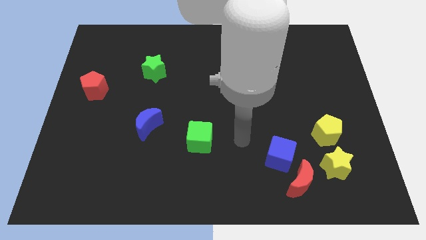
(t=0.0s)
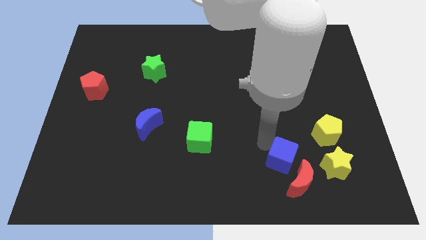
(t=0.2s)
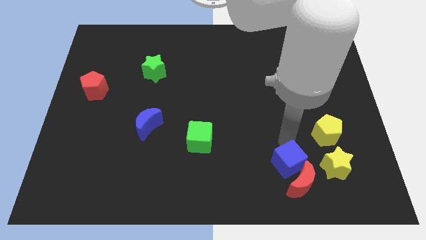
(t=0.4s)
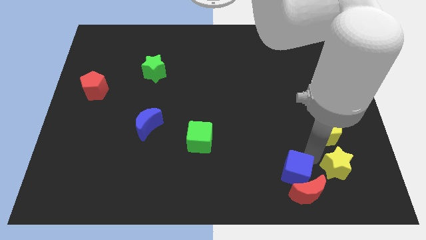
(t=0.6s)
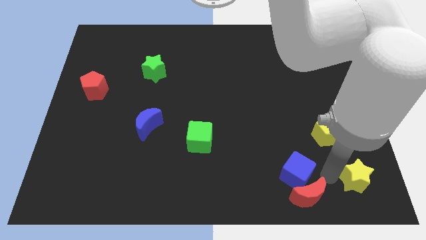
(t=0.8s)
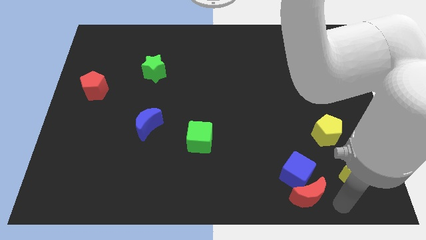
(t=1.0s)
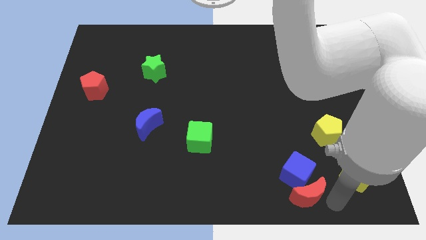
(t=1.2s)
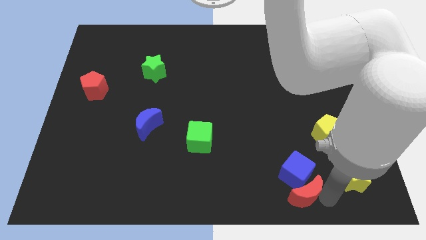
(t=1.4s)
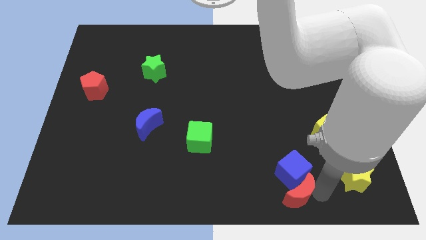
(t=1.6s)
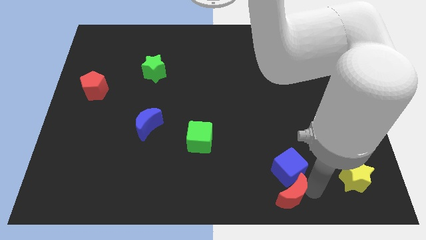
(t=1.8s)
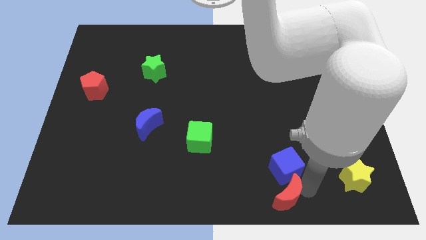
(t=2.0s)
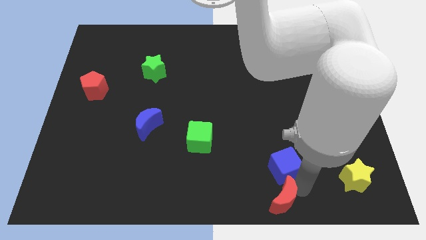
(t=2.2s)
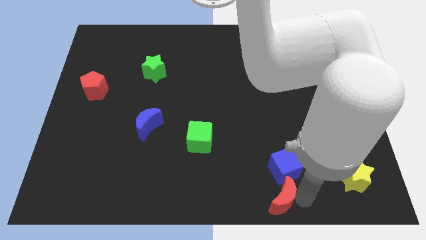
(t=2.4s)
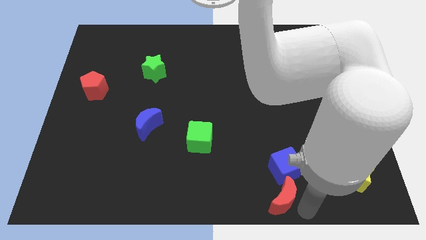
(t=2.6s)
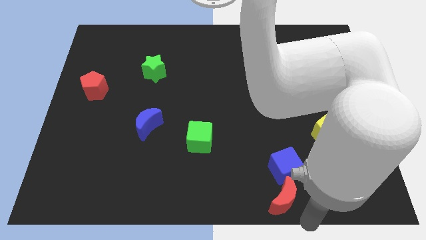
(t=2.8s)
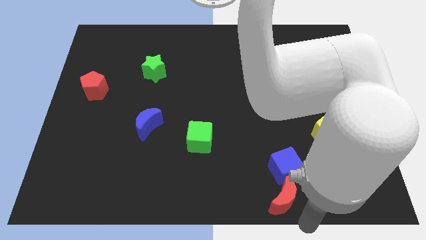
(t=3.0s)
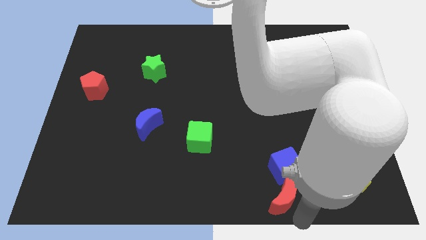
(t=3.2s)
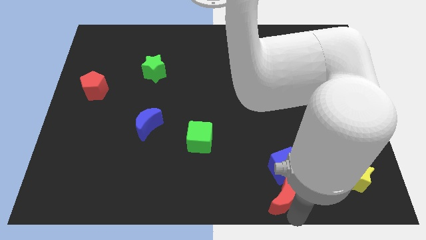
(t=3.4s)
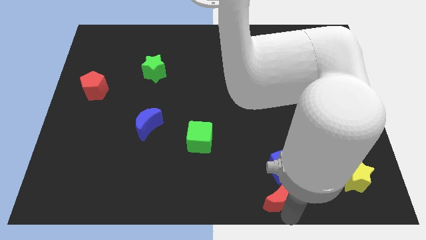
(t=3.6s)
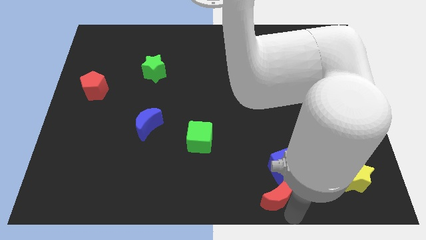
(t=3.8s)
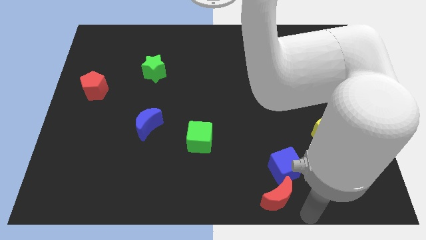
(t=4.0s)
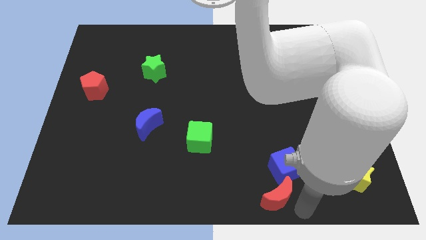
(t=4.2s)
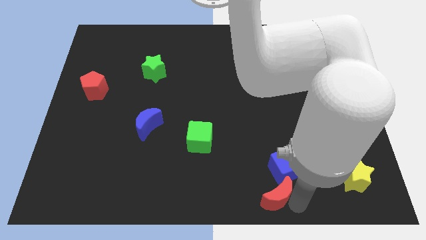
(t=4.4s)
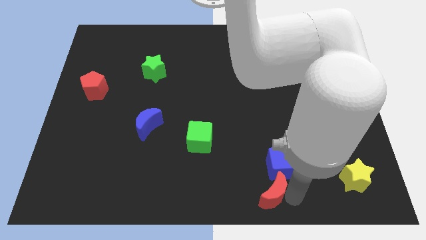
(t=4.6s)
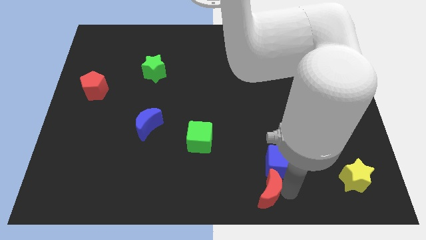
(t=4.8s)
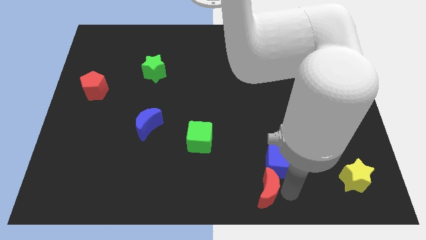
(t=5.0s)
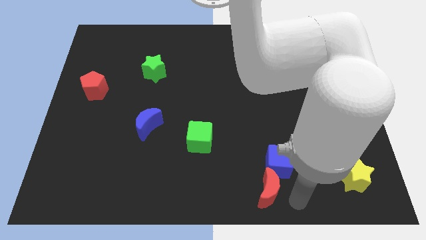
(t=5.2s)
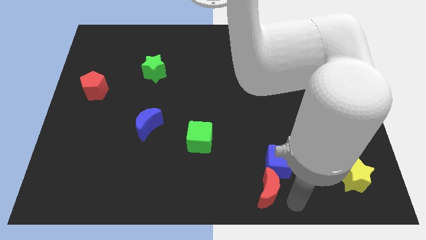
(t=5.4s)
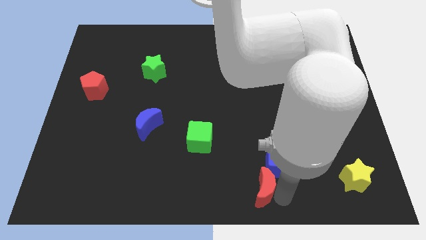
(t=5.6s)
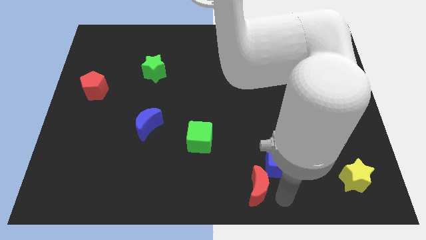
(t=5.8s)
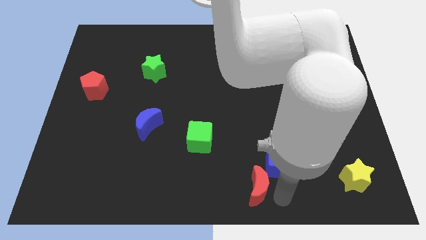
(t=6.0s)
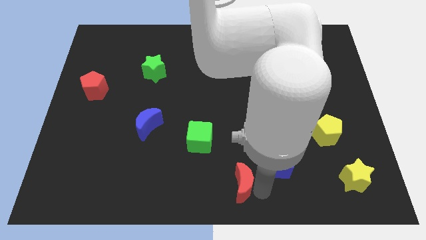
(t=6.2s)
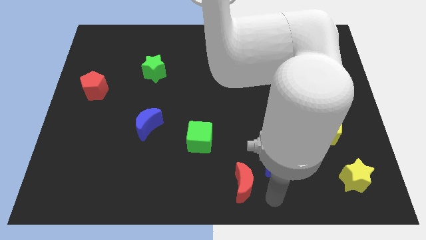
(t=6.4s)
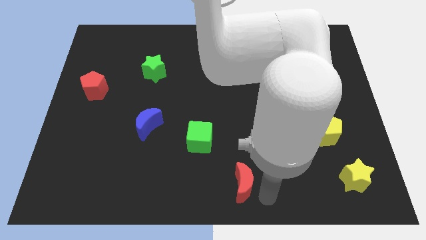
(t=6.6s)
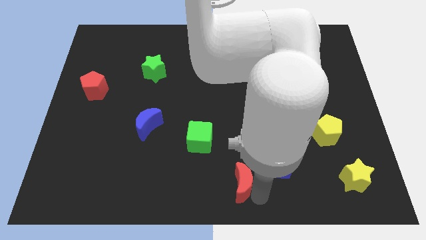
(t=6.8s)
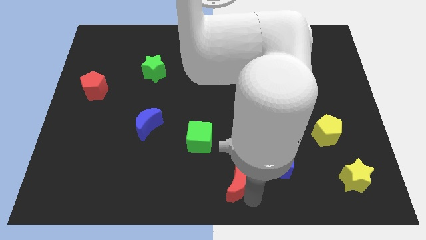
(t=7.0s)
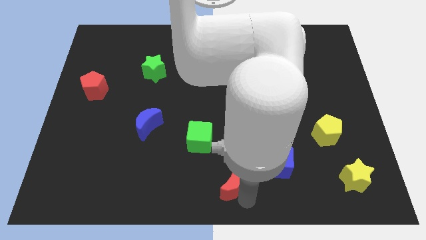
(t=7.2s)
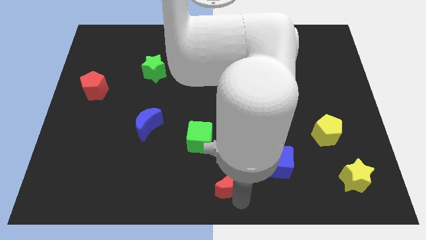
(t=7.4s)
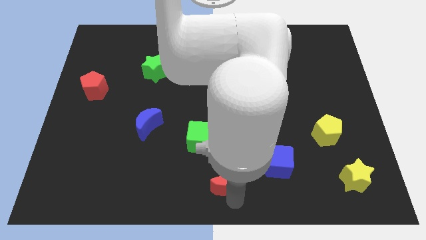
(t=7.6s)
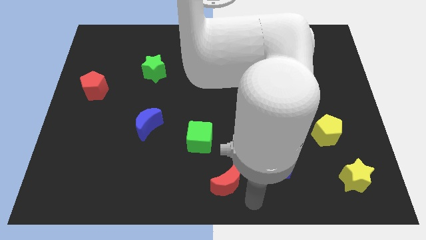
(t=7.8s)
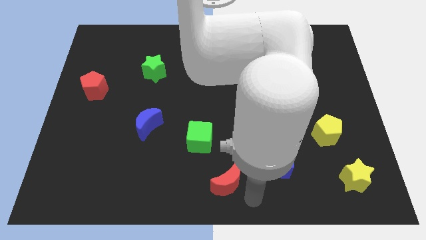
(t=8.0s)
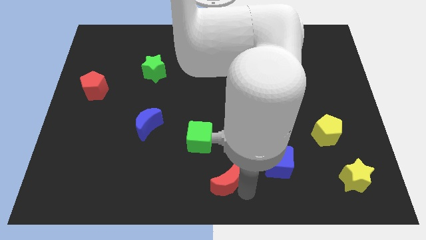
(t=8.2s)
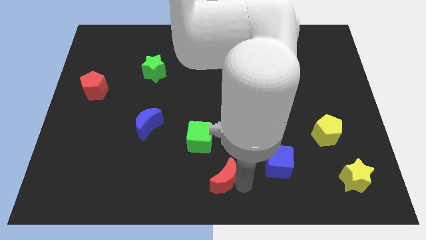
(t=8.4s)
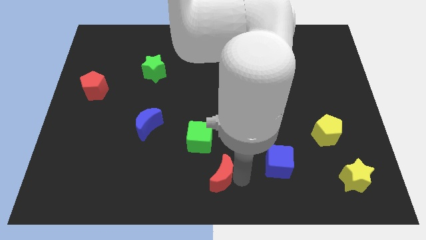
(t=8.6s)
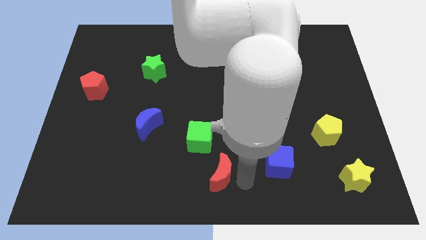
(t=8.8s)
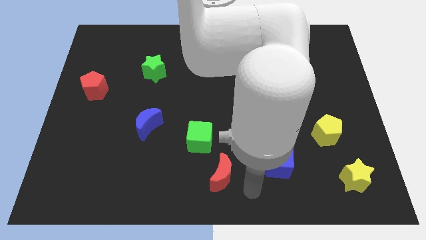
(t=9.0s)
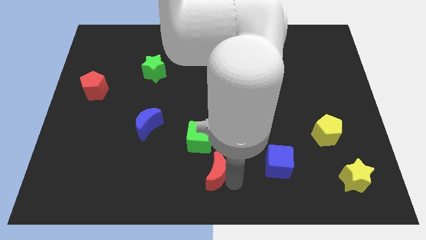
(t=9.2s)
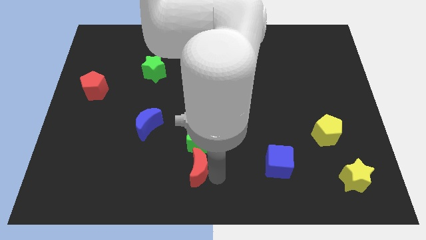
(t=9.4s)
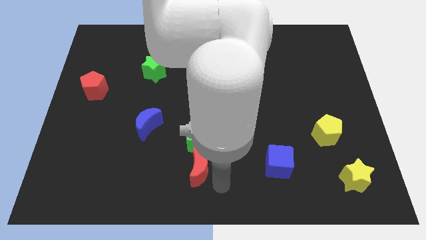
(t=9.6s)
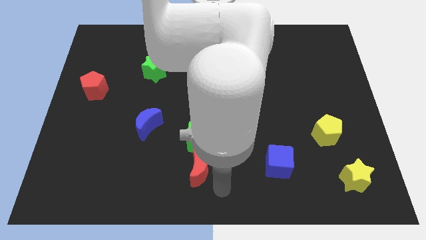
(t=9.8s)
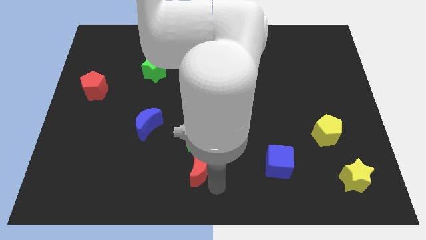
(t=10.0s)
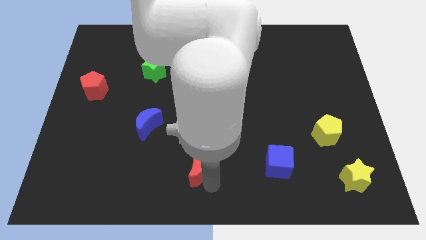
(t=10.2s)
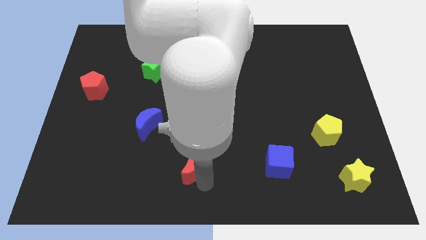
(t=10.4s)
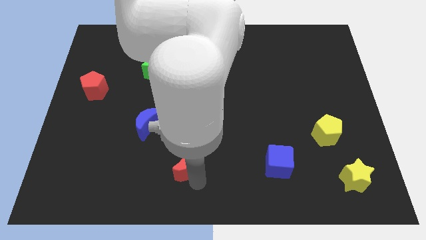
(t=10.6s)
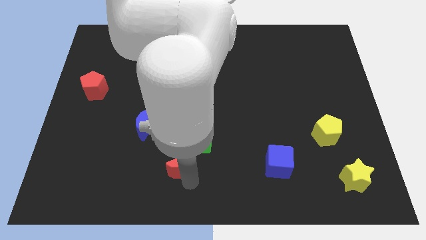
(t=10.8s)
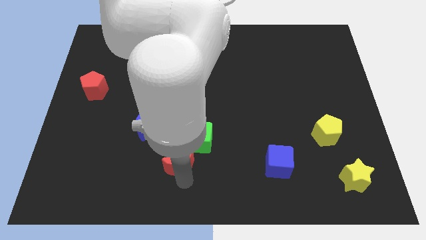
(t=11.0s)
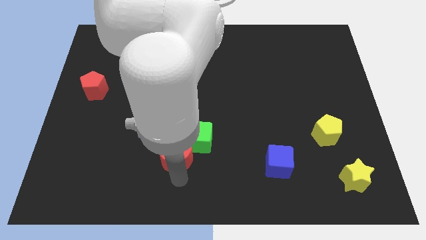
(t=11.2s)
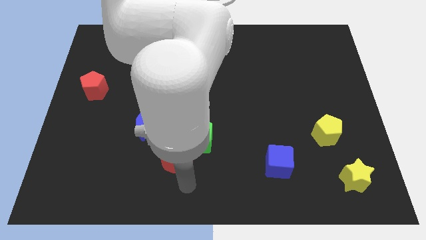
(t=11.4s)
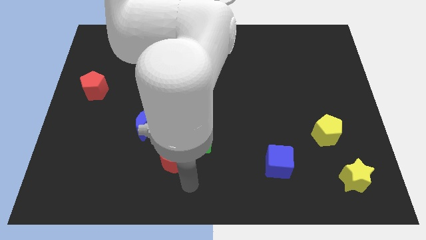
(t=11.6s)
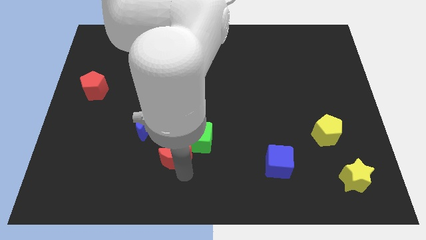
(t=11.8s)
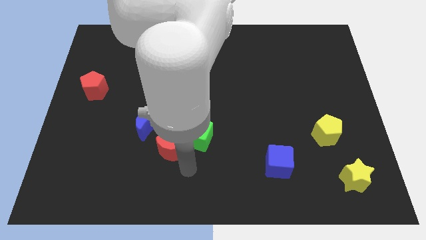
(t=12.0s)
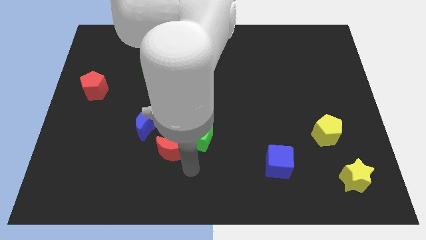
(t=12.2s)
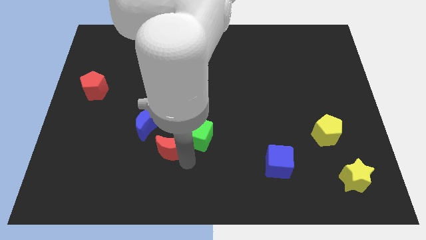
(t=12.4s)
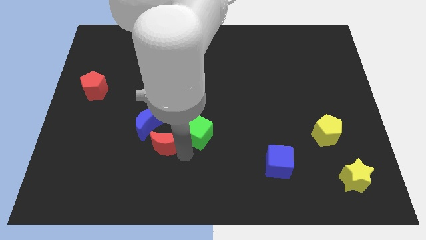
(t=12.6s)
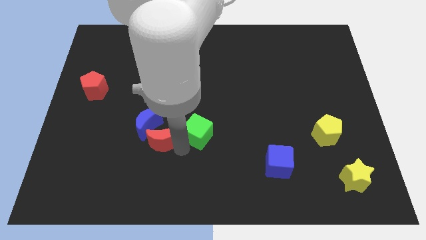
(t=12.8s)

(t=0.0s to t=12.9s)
slide the red moon towards the blue moon

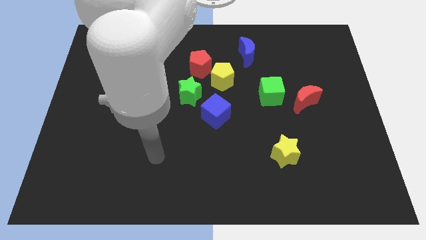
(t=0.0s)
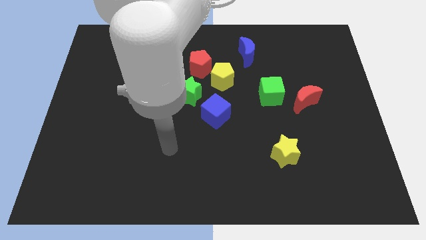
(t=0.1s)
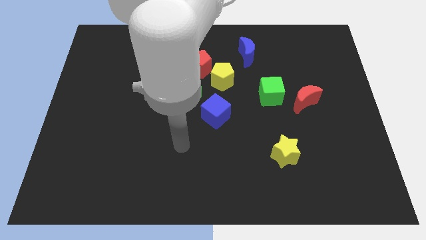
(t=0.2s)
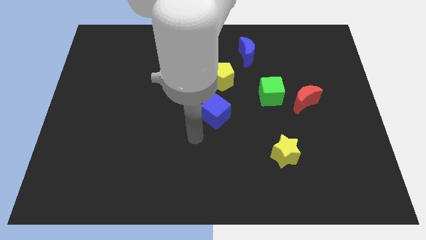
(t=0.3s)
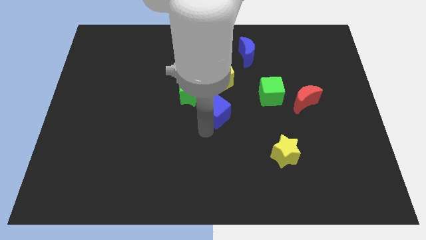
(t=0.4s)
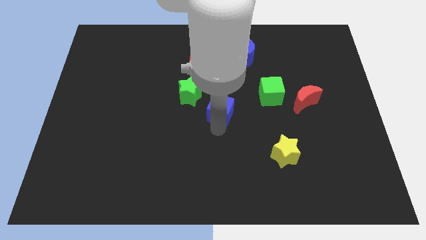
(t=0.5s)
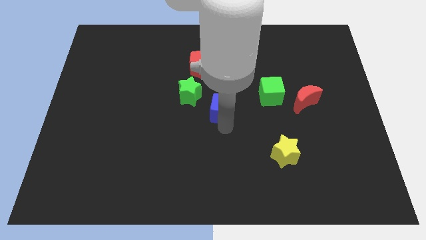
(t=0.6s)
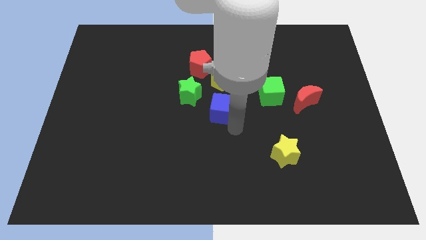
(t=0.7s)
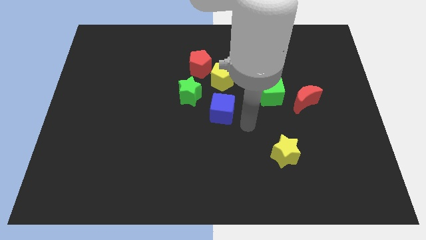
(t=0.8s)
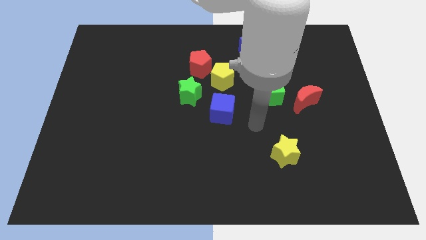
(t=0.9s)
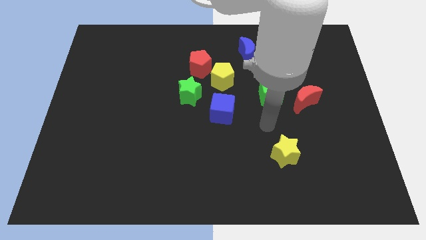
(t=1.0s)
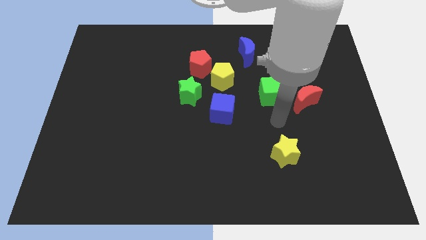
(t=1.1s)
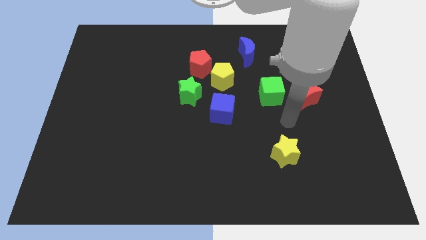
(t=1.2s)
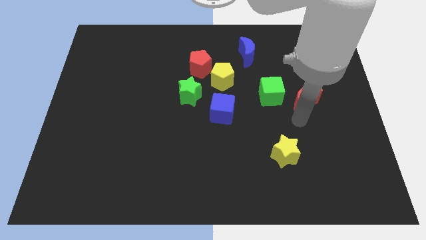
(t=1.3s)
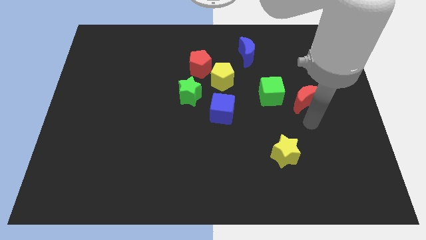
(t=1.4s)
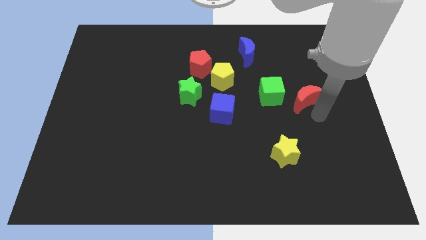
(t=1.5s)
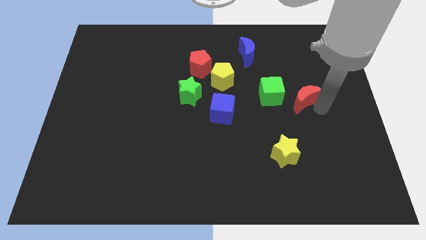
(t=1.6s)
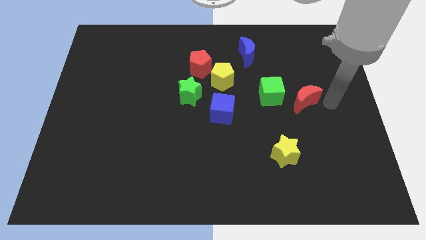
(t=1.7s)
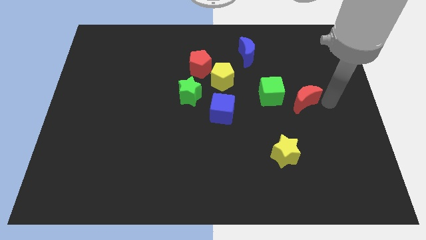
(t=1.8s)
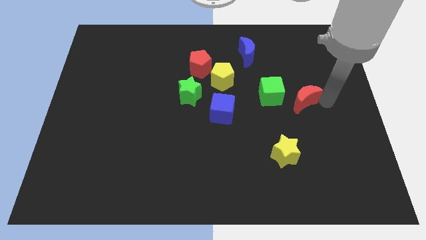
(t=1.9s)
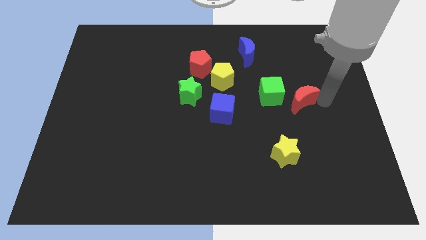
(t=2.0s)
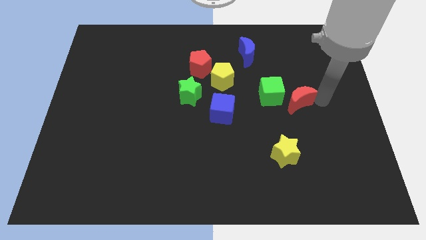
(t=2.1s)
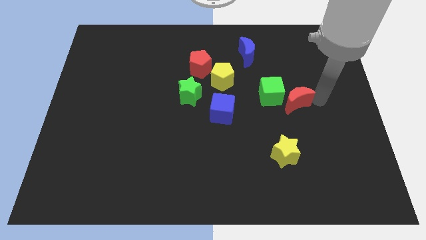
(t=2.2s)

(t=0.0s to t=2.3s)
put the red moon to the green cube
